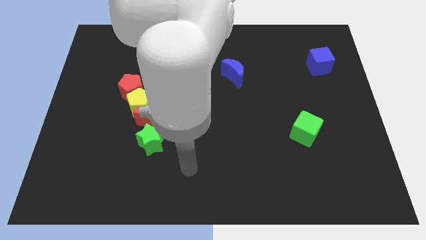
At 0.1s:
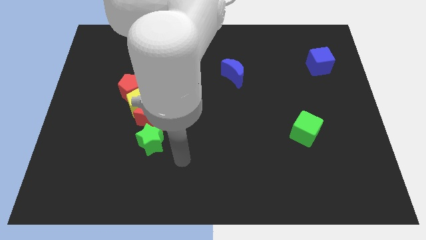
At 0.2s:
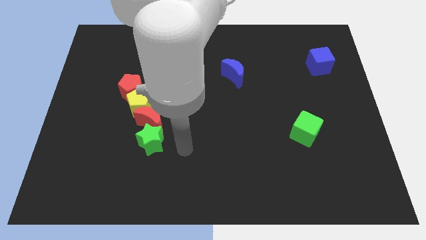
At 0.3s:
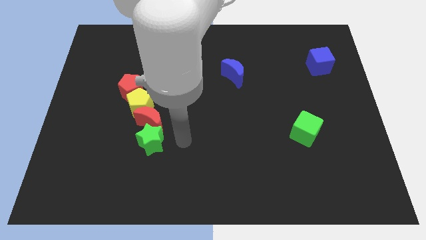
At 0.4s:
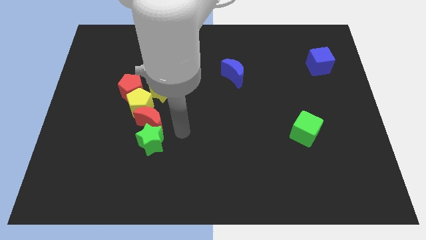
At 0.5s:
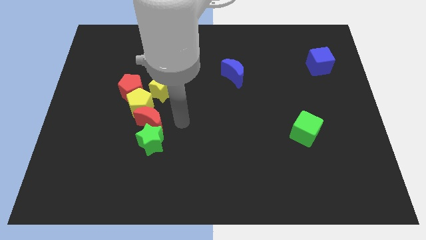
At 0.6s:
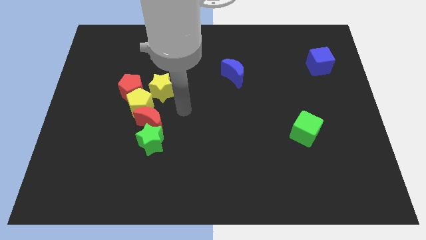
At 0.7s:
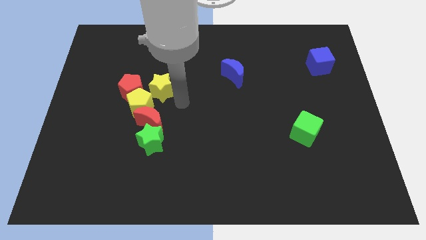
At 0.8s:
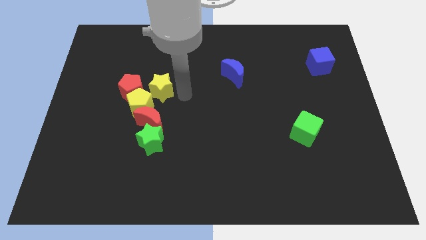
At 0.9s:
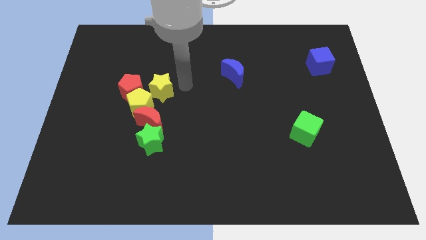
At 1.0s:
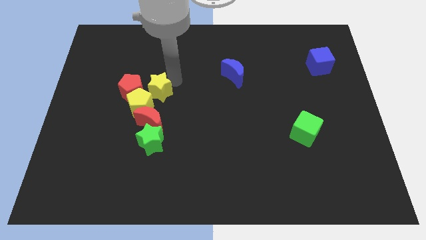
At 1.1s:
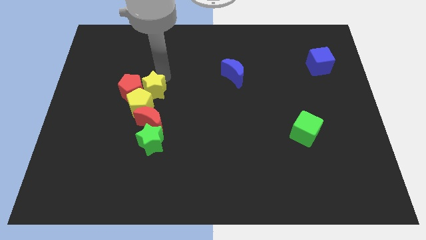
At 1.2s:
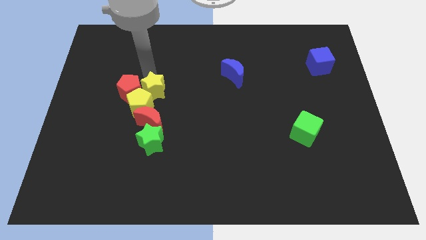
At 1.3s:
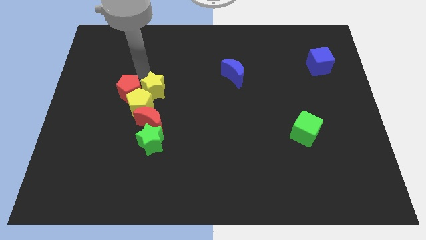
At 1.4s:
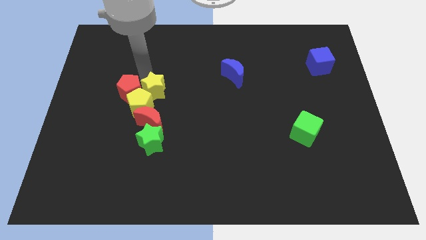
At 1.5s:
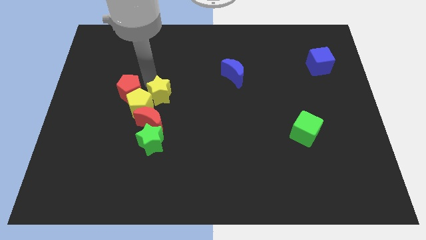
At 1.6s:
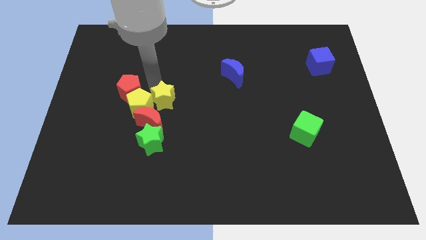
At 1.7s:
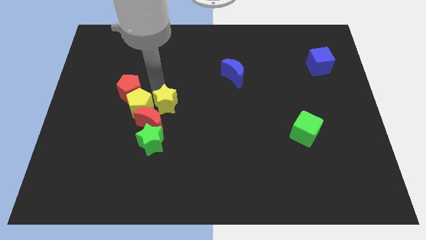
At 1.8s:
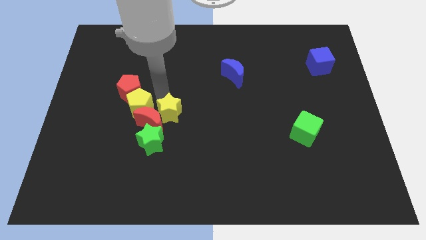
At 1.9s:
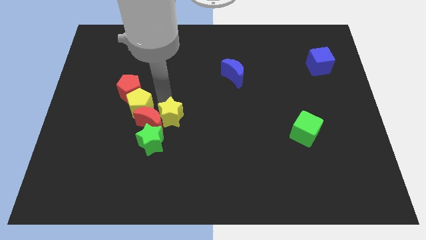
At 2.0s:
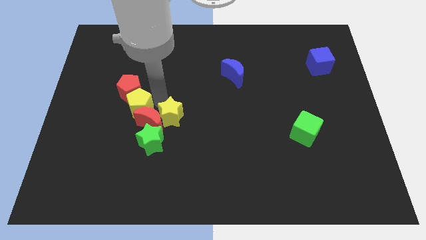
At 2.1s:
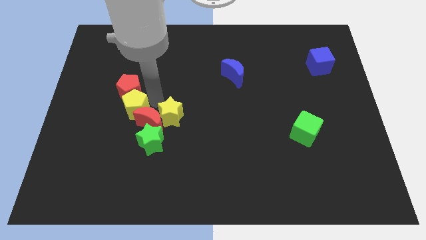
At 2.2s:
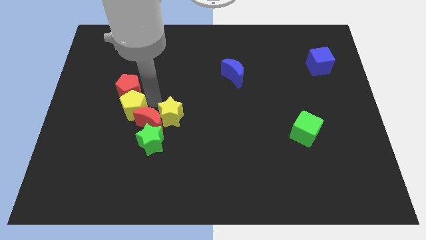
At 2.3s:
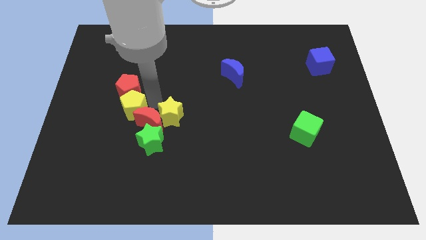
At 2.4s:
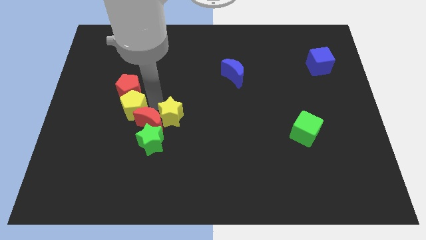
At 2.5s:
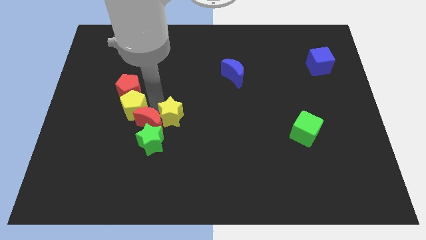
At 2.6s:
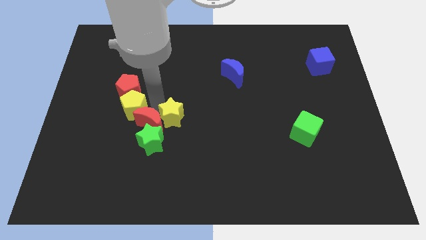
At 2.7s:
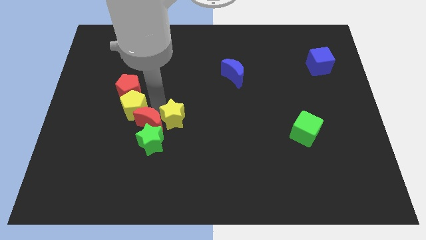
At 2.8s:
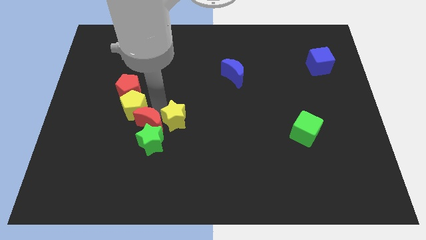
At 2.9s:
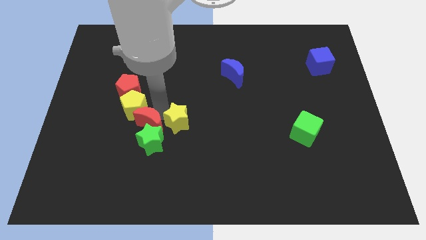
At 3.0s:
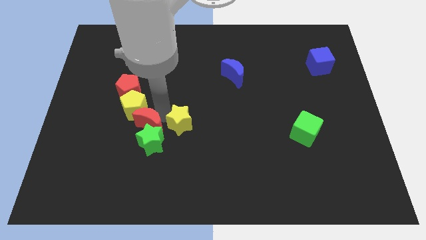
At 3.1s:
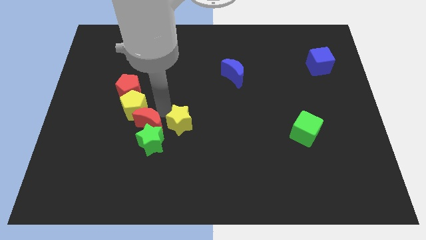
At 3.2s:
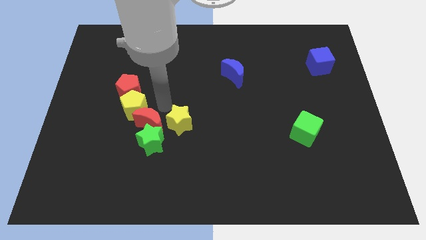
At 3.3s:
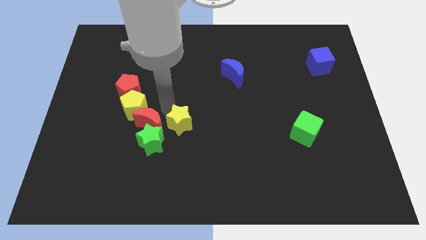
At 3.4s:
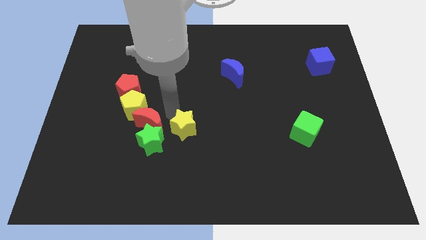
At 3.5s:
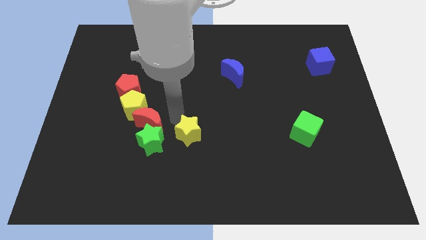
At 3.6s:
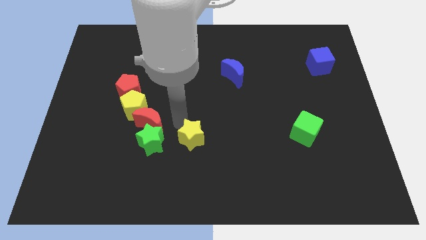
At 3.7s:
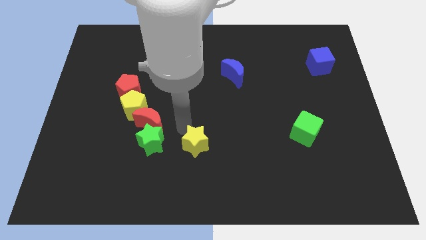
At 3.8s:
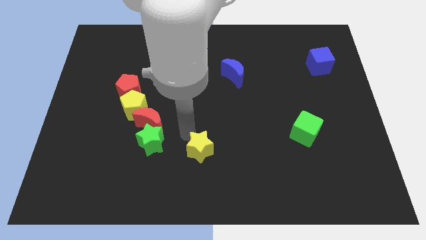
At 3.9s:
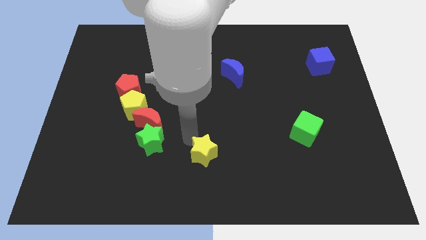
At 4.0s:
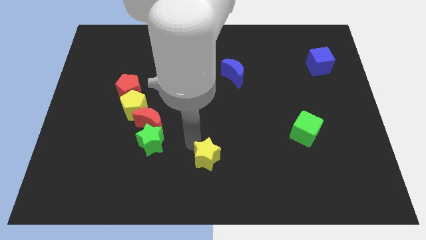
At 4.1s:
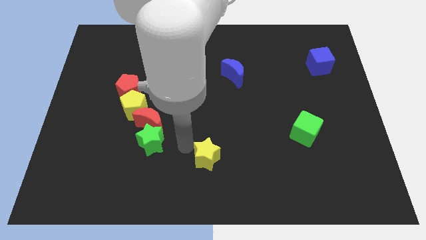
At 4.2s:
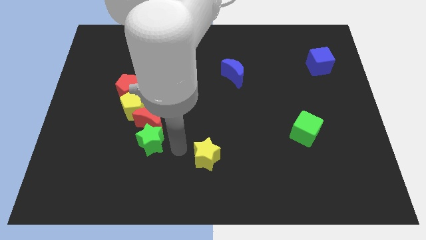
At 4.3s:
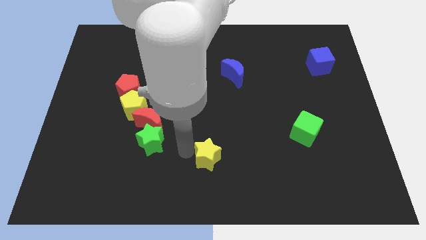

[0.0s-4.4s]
push the yellow star down and to the right

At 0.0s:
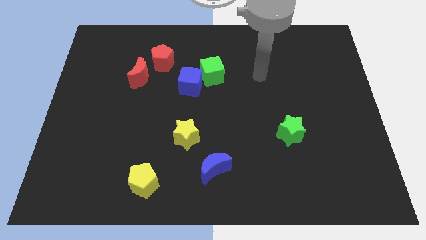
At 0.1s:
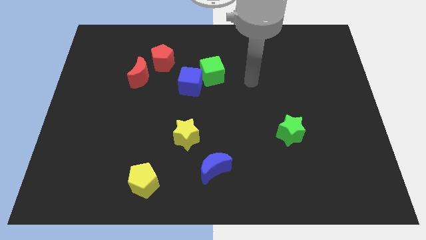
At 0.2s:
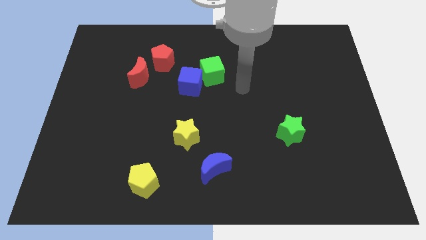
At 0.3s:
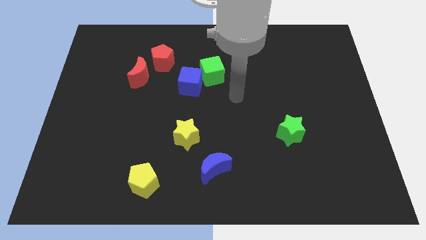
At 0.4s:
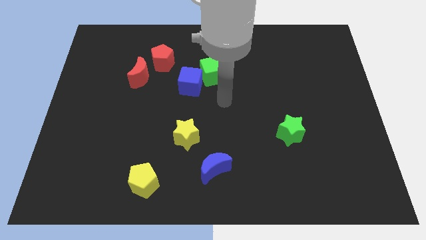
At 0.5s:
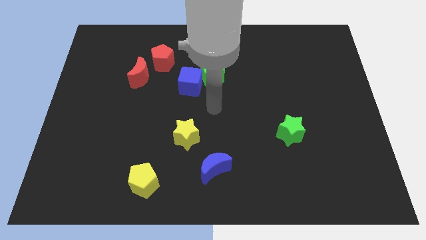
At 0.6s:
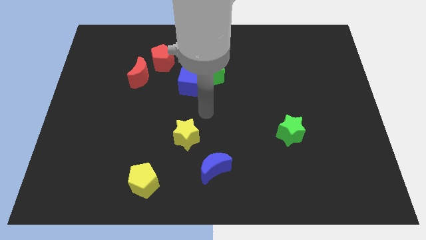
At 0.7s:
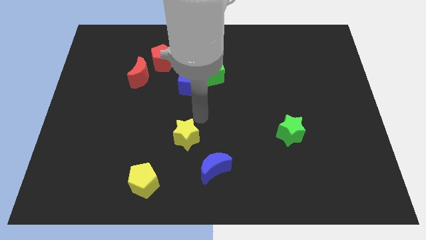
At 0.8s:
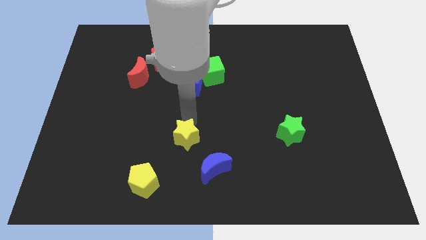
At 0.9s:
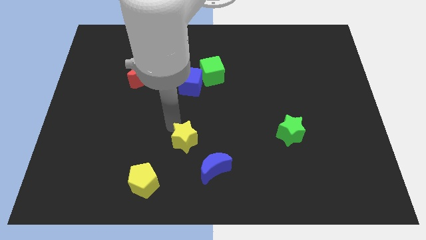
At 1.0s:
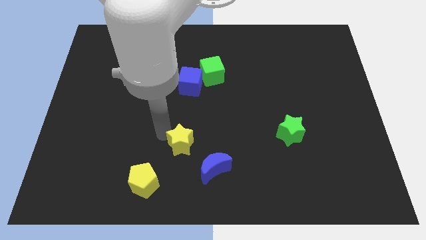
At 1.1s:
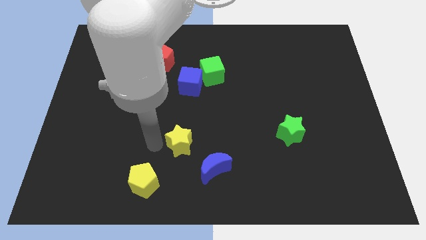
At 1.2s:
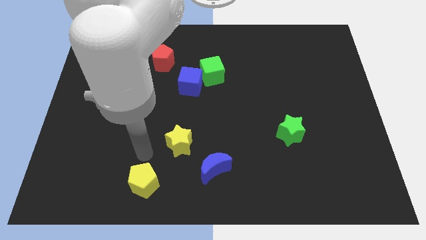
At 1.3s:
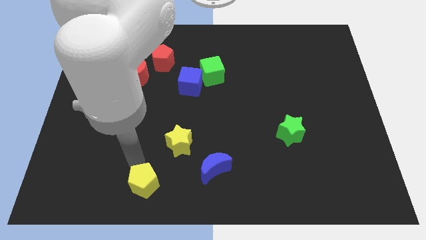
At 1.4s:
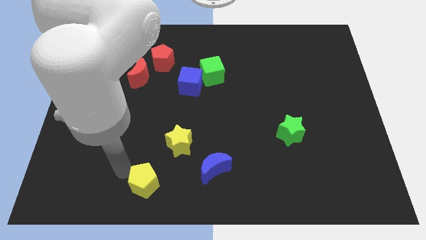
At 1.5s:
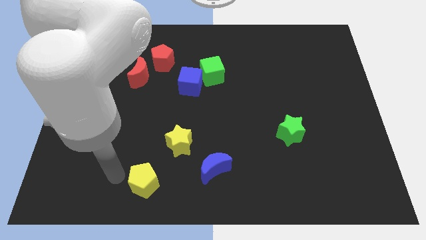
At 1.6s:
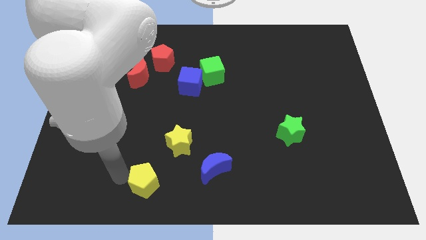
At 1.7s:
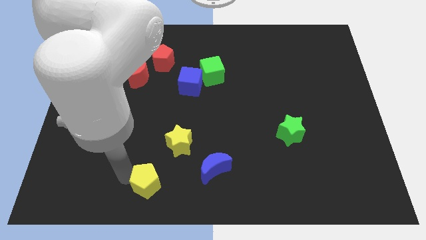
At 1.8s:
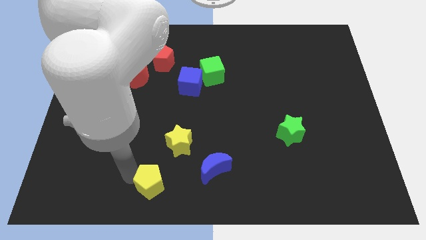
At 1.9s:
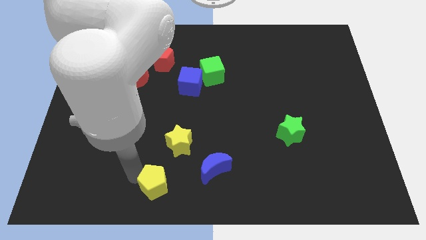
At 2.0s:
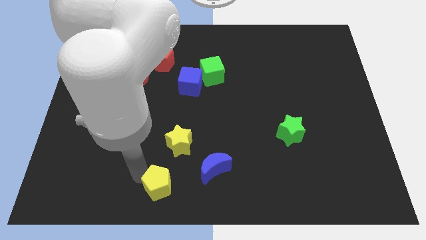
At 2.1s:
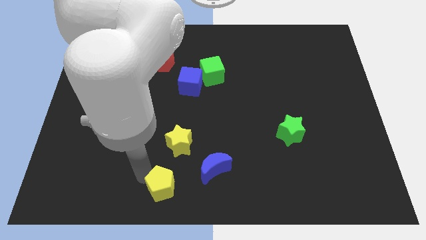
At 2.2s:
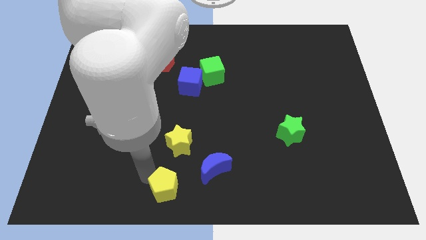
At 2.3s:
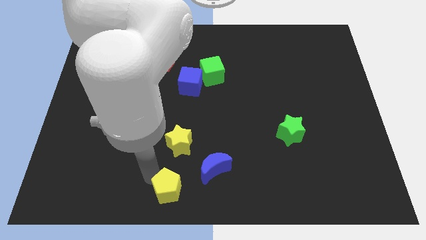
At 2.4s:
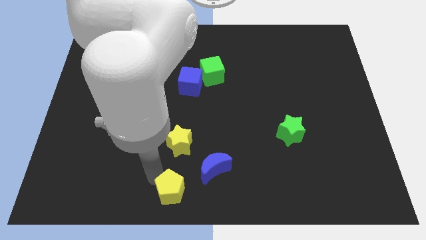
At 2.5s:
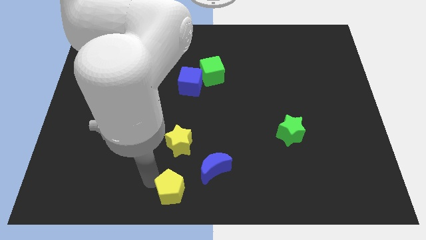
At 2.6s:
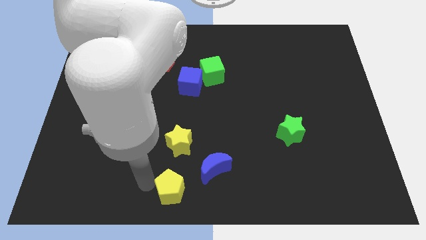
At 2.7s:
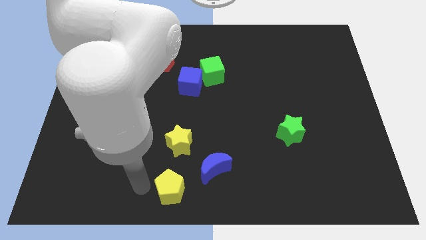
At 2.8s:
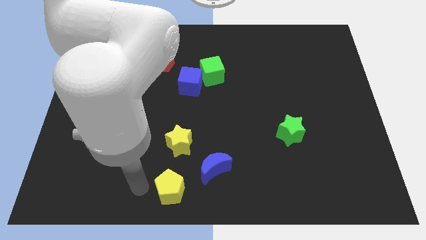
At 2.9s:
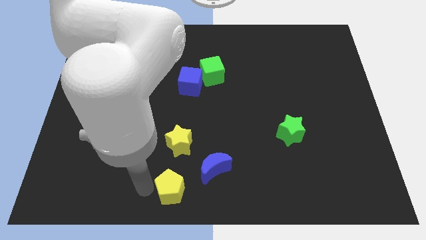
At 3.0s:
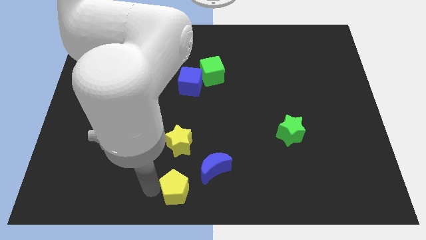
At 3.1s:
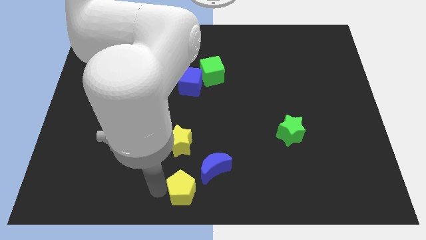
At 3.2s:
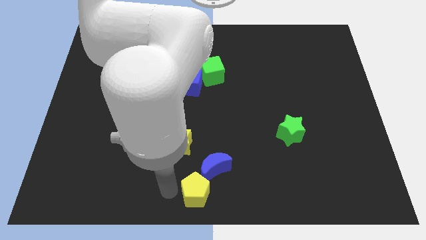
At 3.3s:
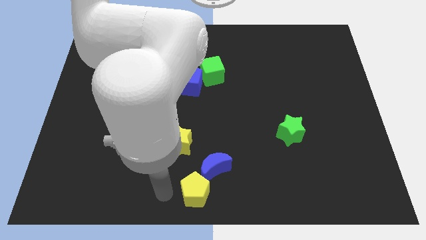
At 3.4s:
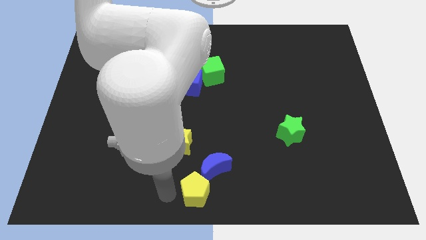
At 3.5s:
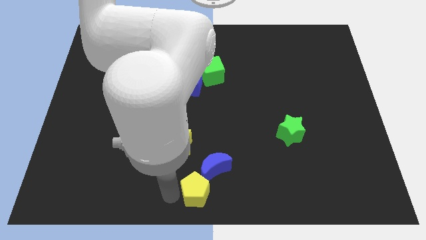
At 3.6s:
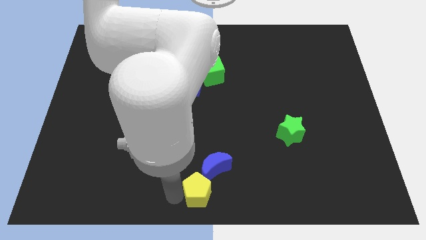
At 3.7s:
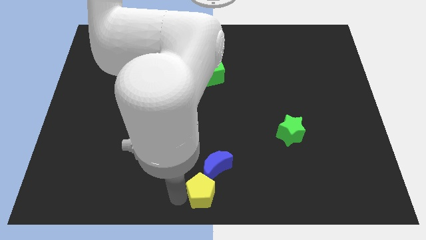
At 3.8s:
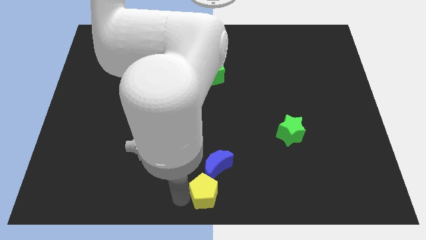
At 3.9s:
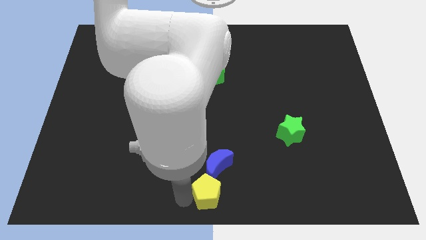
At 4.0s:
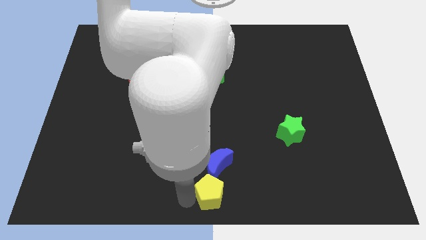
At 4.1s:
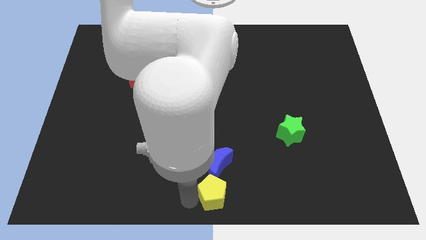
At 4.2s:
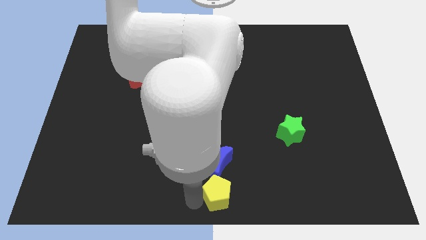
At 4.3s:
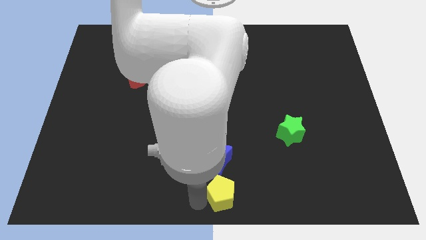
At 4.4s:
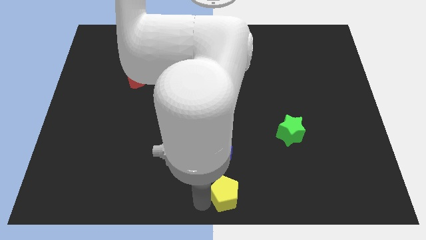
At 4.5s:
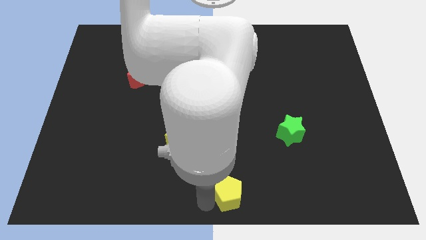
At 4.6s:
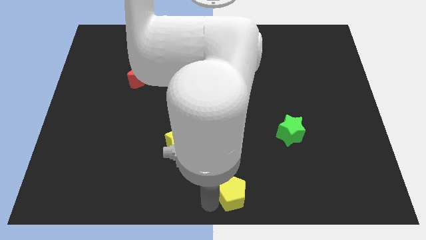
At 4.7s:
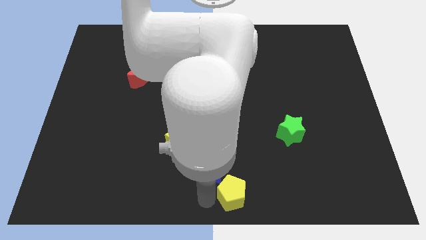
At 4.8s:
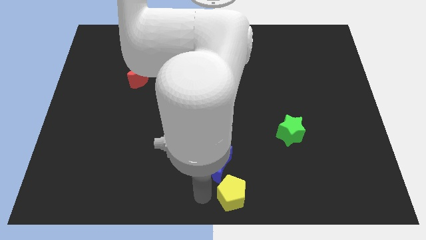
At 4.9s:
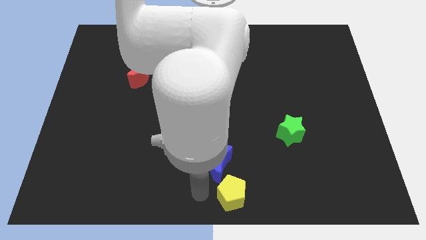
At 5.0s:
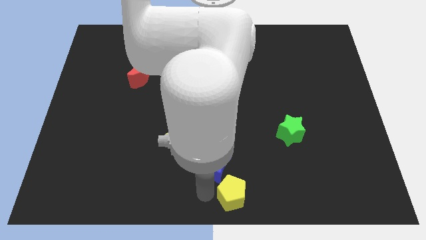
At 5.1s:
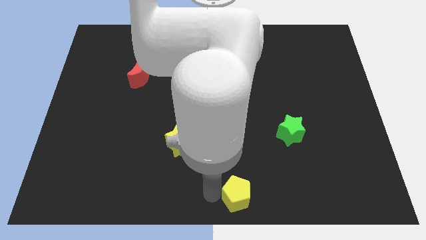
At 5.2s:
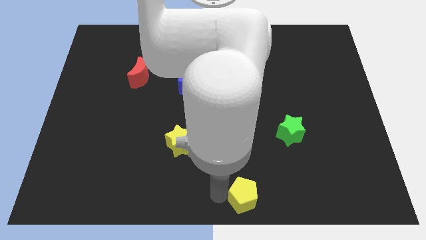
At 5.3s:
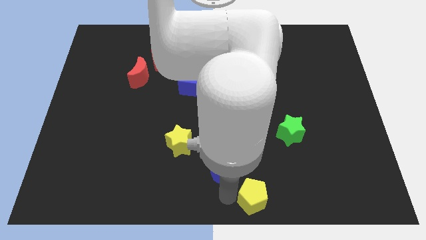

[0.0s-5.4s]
slide the yellow pentagon to the right
